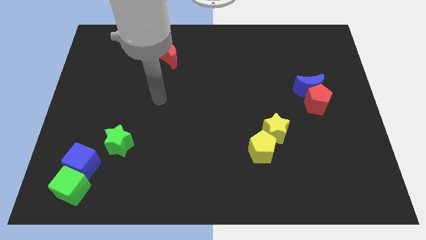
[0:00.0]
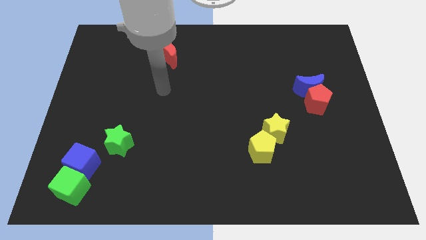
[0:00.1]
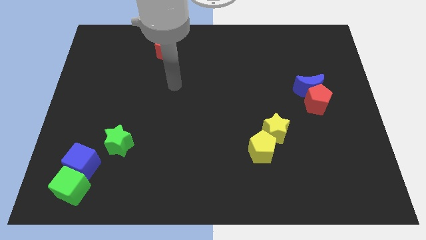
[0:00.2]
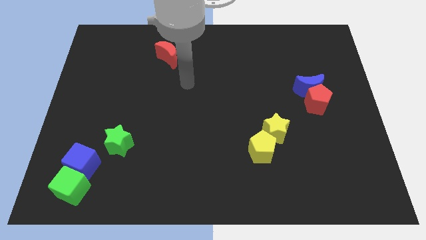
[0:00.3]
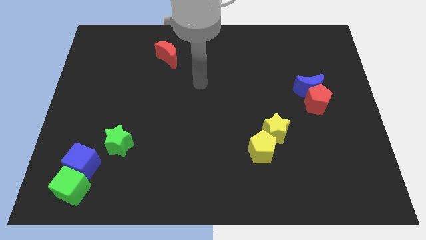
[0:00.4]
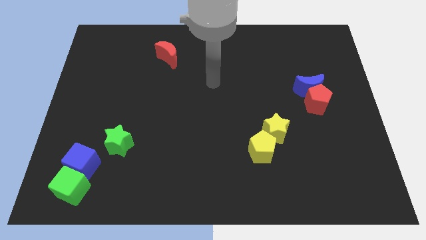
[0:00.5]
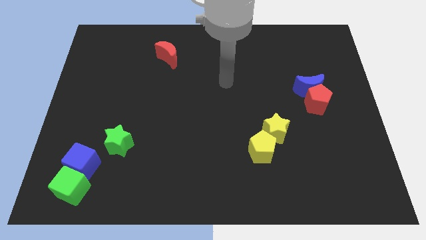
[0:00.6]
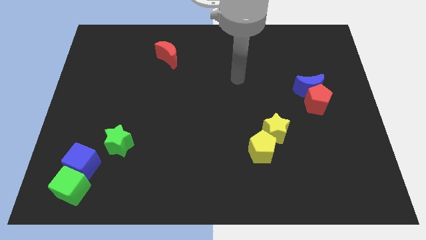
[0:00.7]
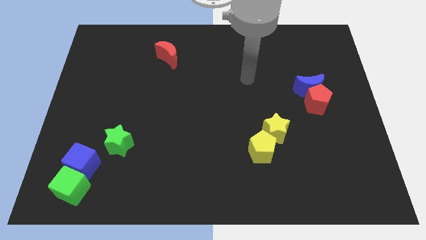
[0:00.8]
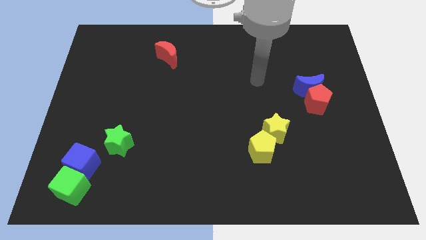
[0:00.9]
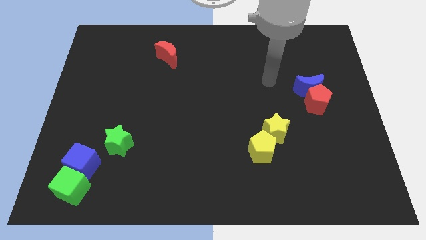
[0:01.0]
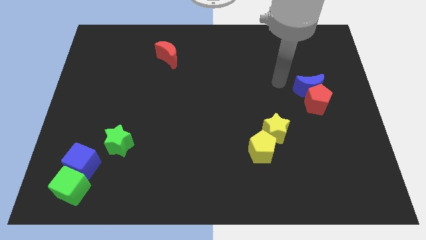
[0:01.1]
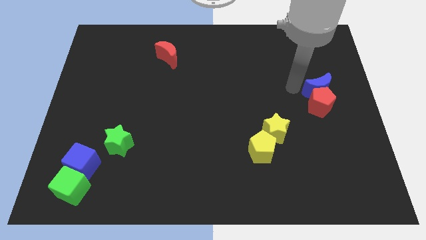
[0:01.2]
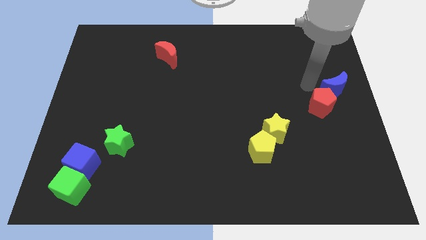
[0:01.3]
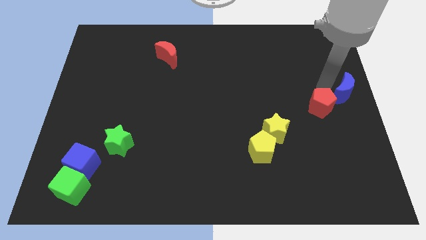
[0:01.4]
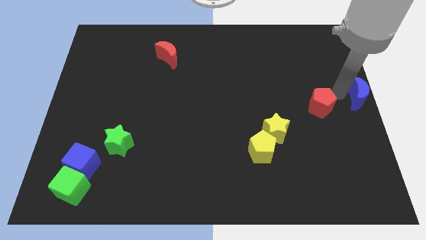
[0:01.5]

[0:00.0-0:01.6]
pull the red pentagon apart from the blue moon

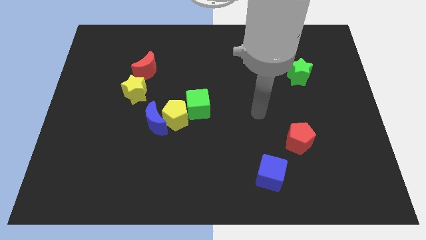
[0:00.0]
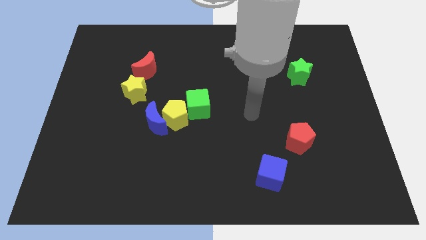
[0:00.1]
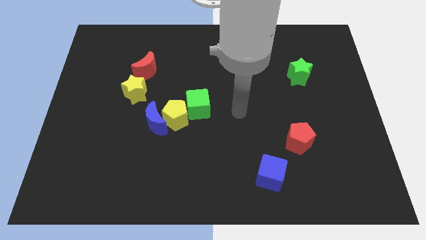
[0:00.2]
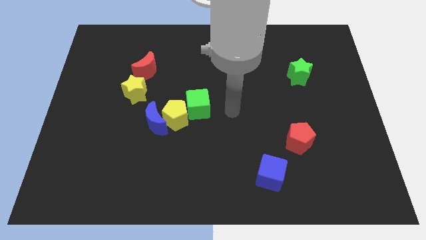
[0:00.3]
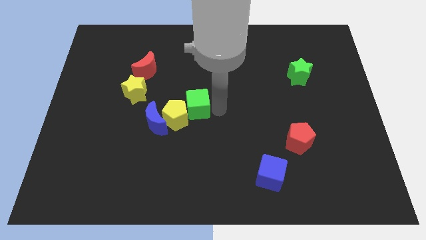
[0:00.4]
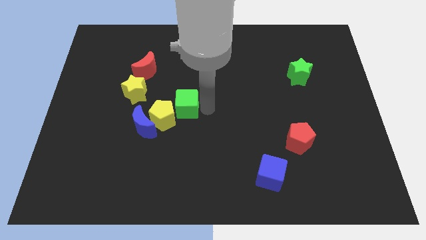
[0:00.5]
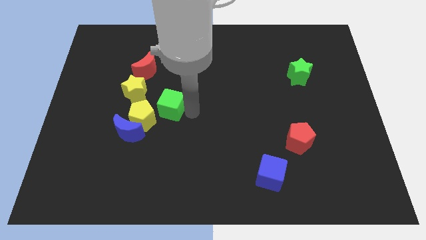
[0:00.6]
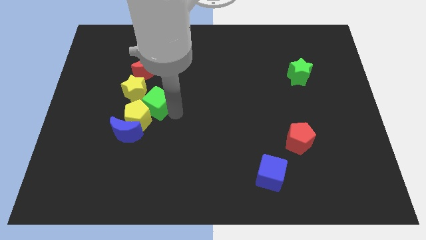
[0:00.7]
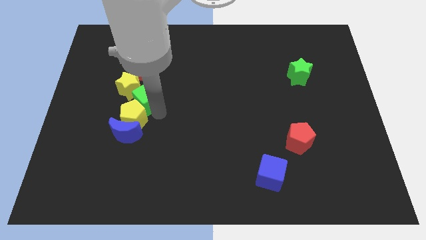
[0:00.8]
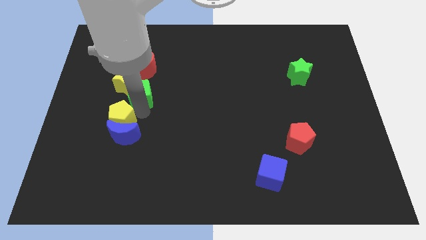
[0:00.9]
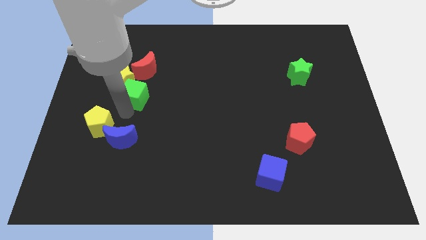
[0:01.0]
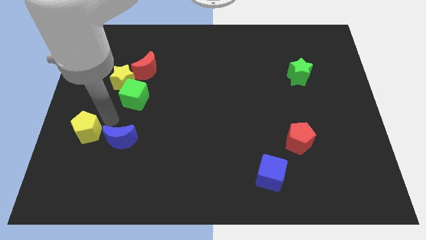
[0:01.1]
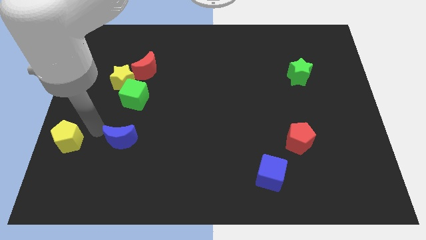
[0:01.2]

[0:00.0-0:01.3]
separate the blue moon from the yellow pentagon

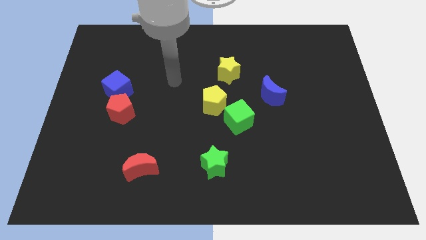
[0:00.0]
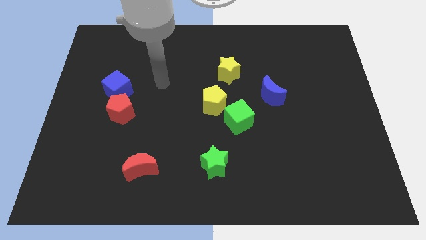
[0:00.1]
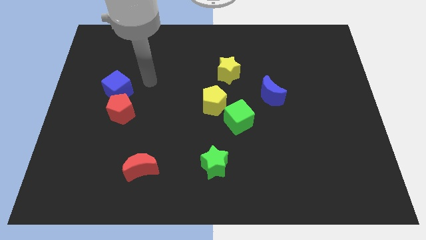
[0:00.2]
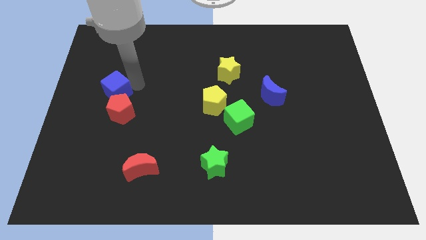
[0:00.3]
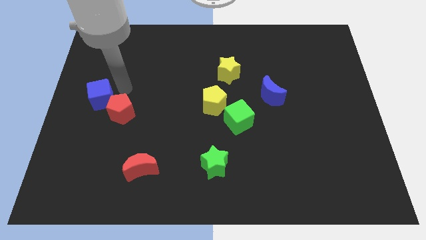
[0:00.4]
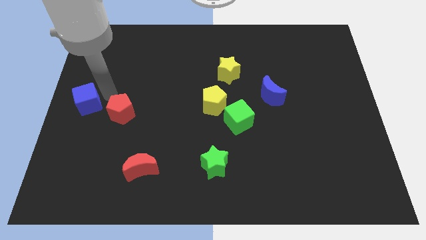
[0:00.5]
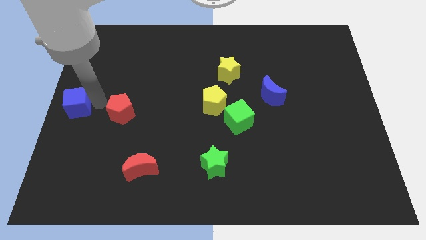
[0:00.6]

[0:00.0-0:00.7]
pull the red pentagon apart from the blue cube

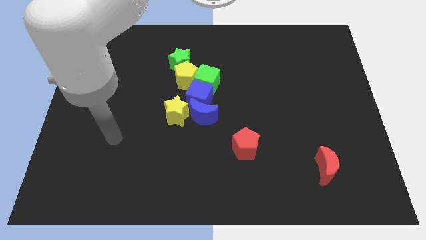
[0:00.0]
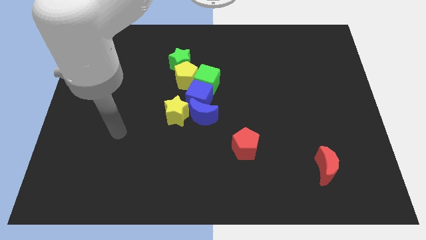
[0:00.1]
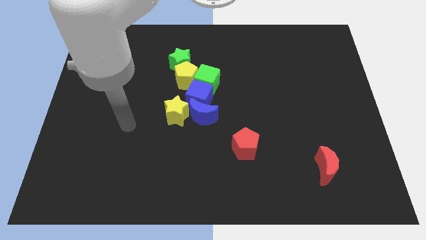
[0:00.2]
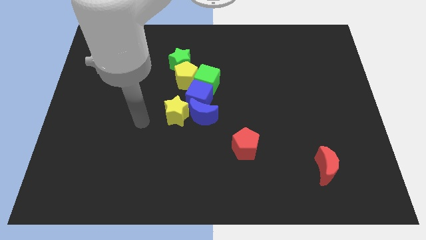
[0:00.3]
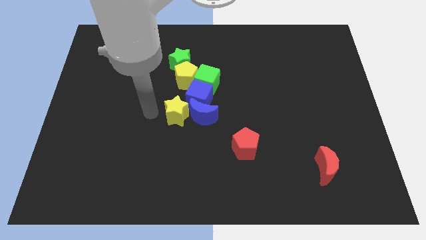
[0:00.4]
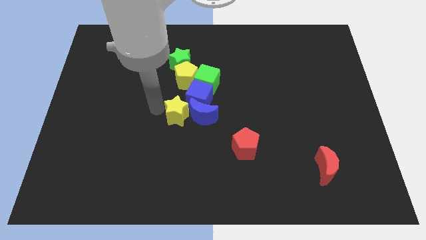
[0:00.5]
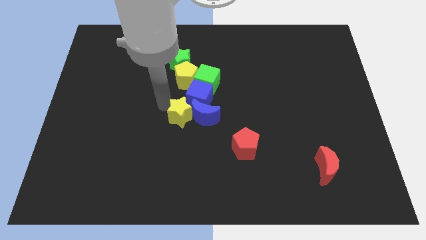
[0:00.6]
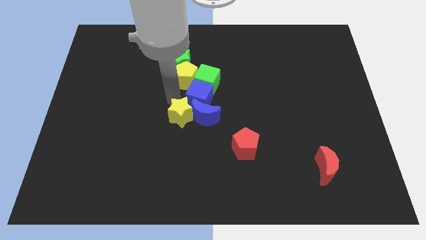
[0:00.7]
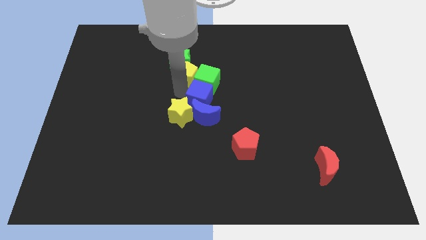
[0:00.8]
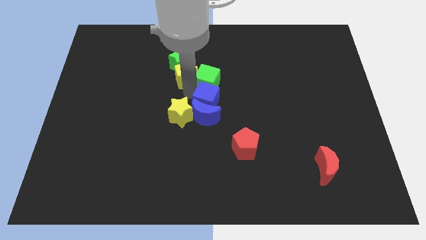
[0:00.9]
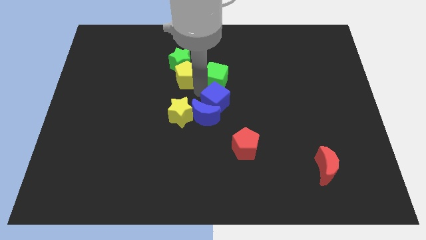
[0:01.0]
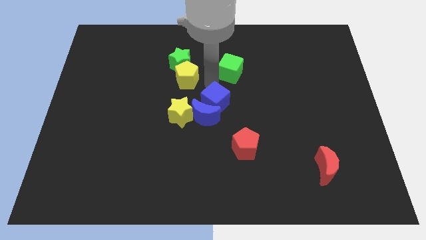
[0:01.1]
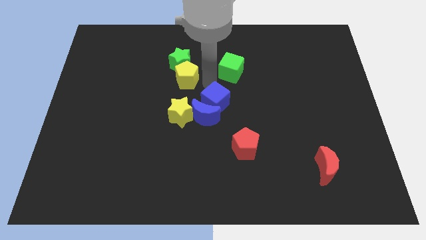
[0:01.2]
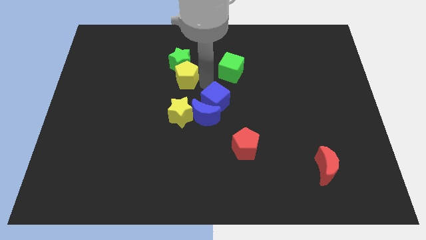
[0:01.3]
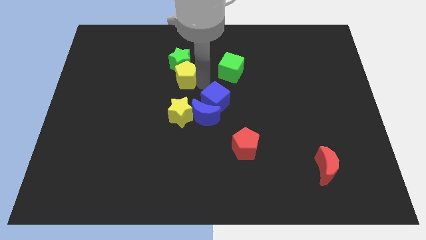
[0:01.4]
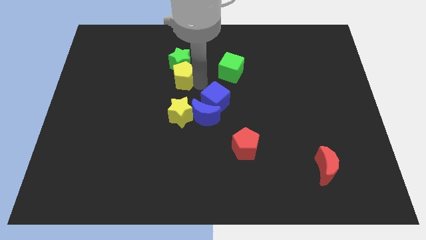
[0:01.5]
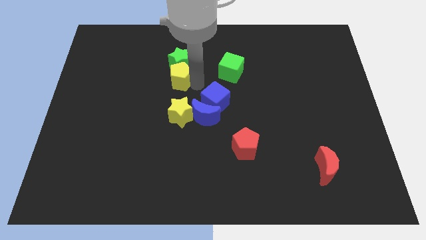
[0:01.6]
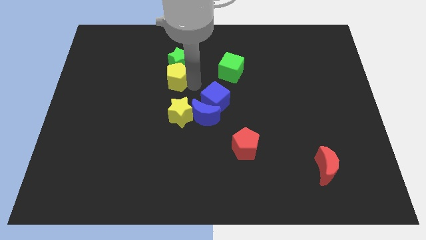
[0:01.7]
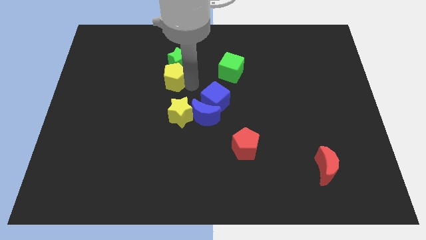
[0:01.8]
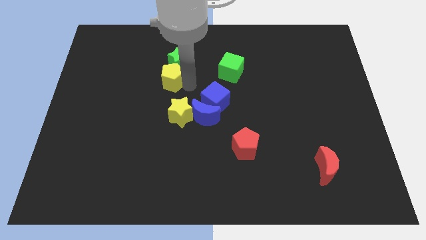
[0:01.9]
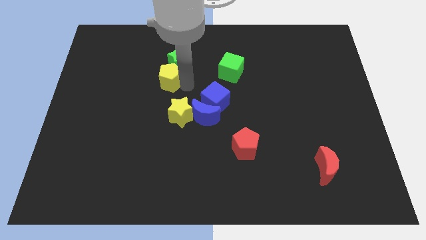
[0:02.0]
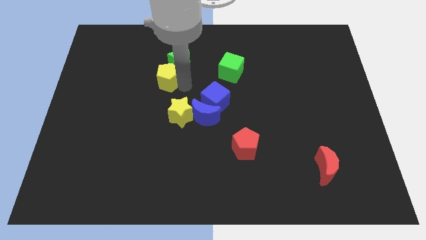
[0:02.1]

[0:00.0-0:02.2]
move the yellow pentagon away from the group

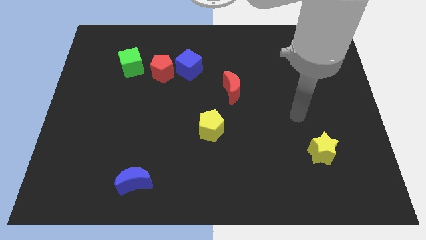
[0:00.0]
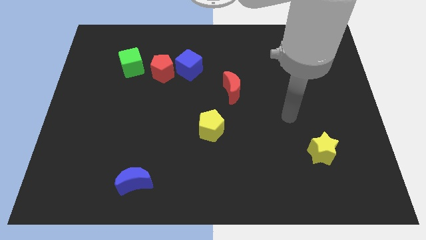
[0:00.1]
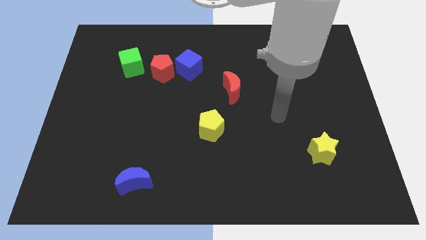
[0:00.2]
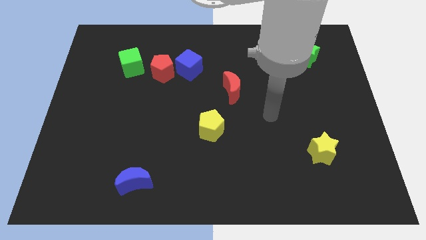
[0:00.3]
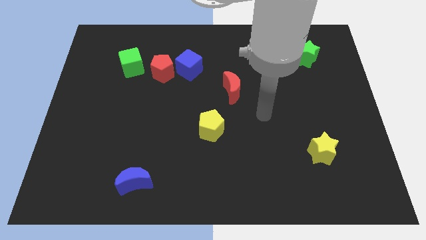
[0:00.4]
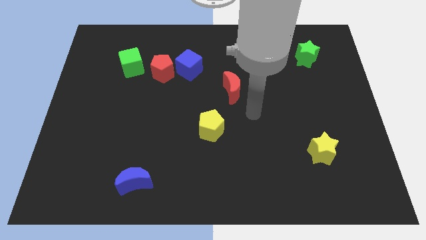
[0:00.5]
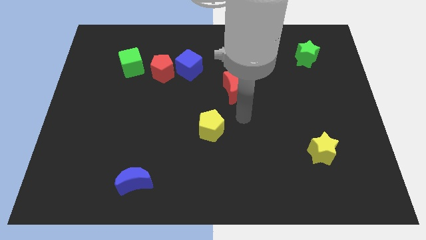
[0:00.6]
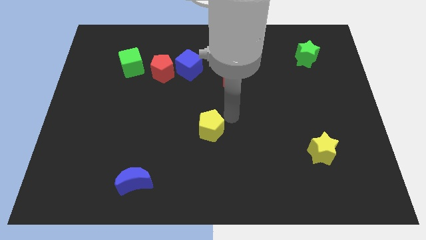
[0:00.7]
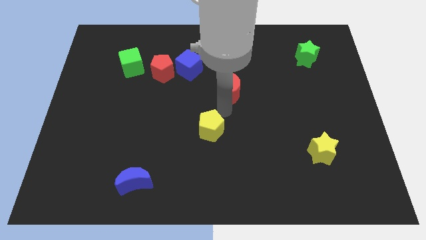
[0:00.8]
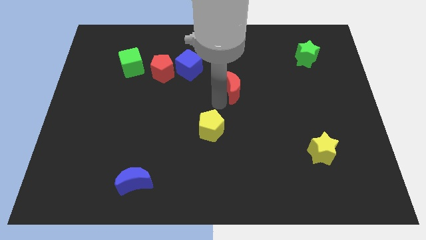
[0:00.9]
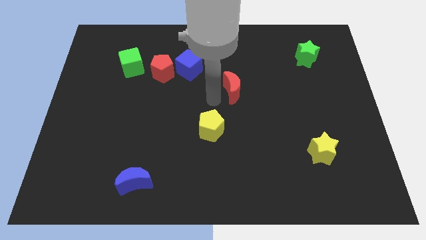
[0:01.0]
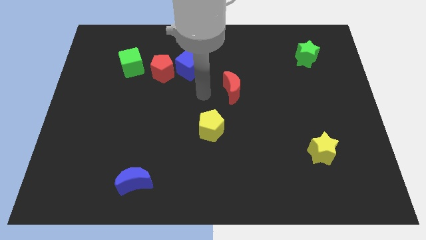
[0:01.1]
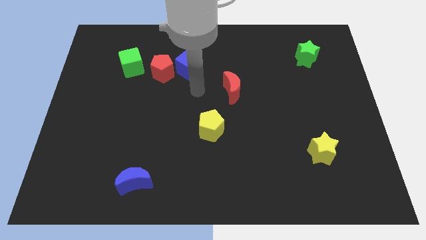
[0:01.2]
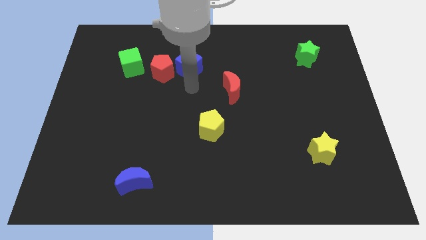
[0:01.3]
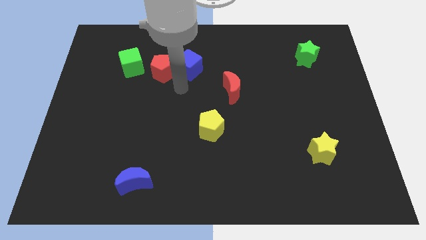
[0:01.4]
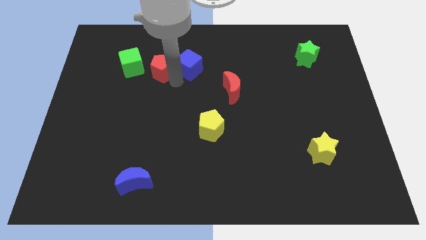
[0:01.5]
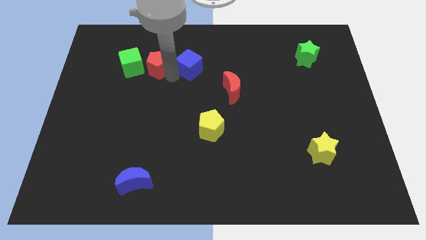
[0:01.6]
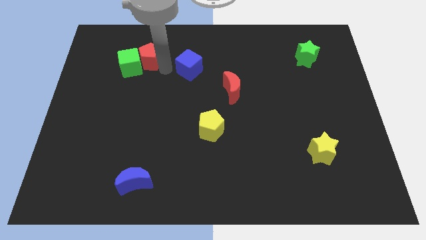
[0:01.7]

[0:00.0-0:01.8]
pull the blue cube apart from the red pentagon

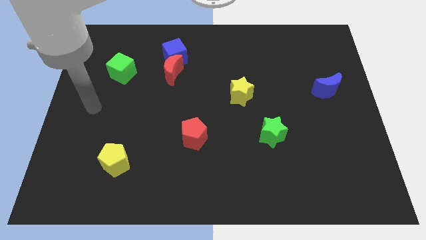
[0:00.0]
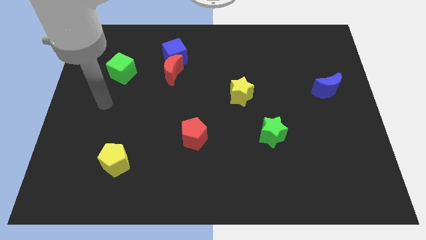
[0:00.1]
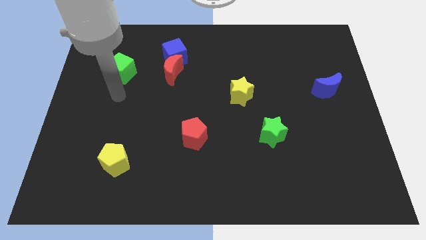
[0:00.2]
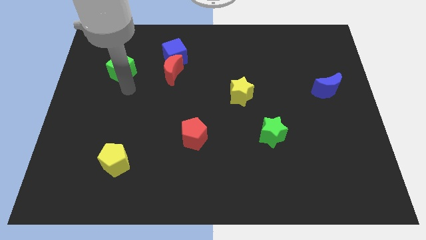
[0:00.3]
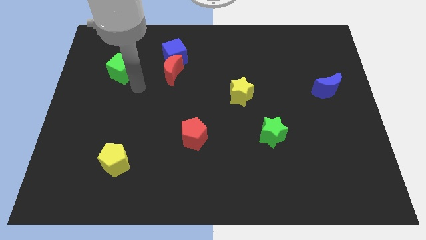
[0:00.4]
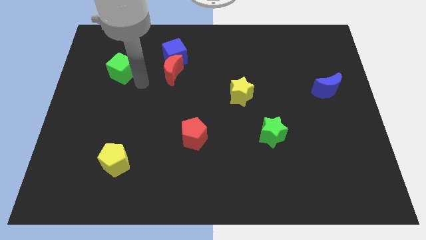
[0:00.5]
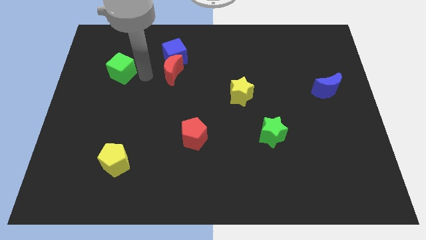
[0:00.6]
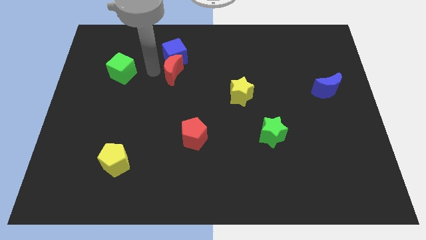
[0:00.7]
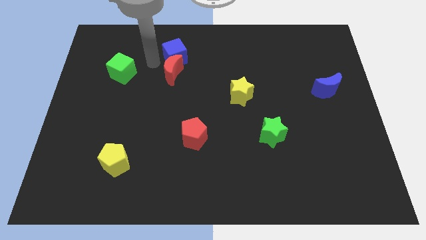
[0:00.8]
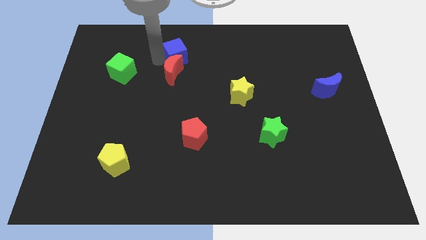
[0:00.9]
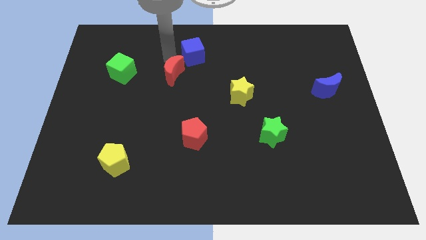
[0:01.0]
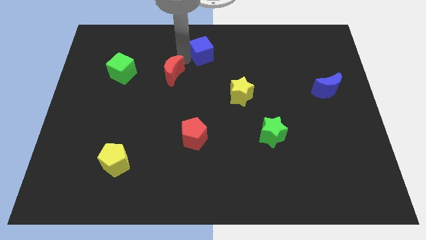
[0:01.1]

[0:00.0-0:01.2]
separate the red moon from the blue cube

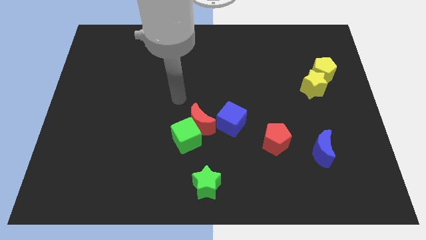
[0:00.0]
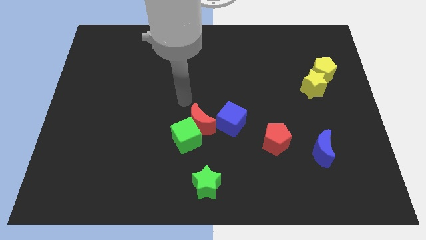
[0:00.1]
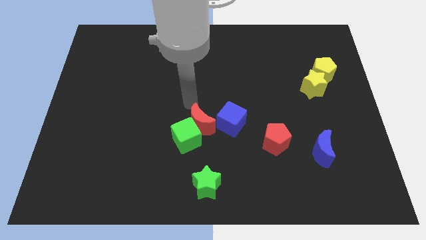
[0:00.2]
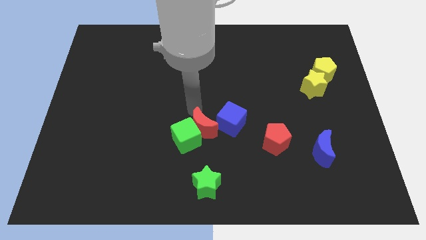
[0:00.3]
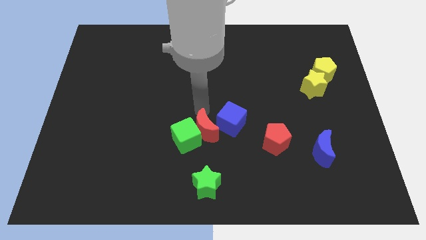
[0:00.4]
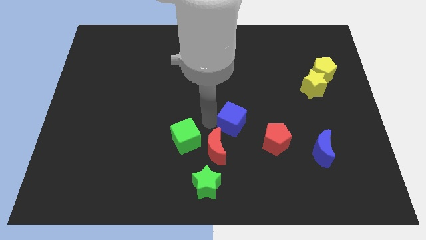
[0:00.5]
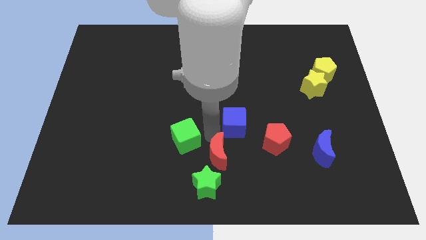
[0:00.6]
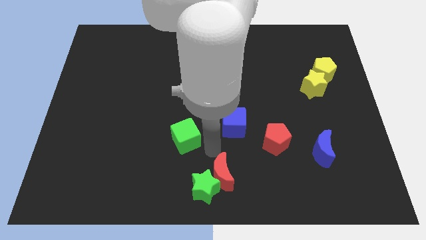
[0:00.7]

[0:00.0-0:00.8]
separate the green cube from the red moon
